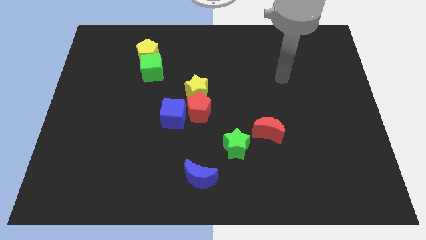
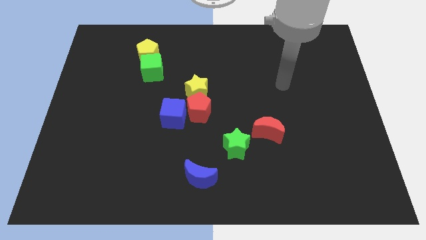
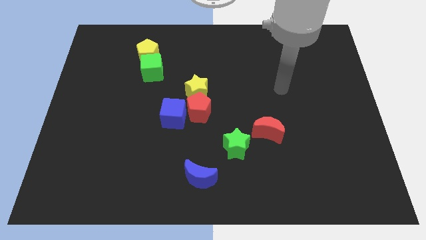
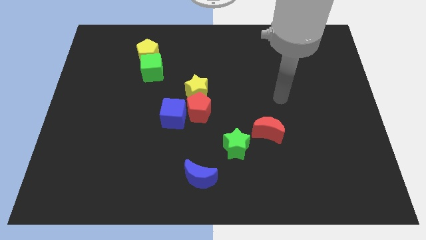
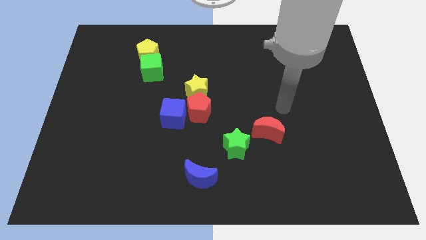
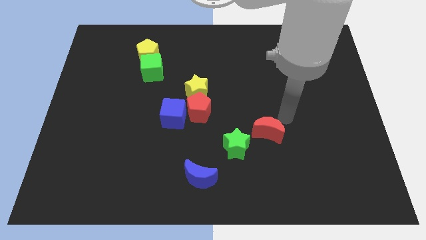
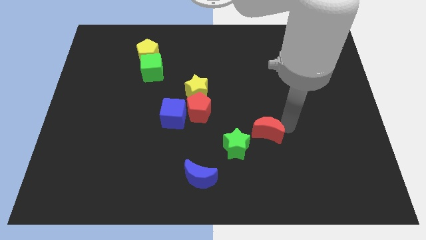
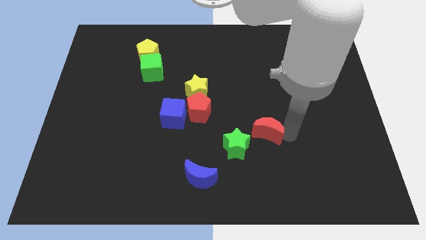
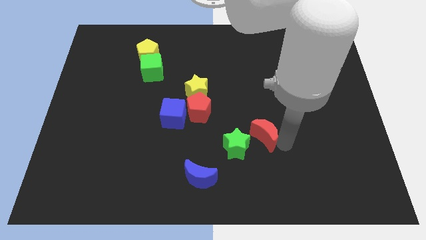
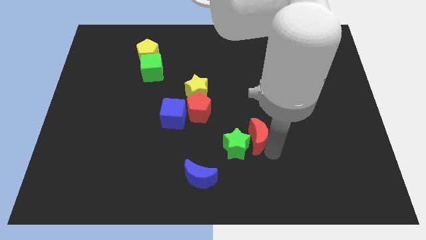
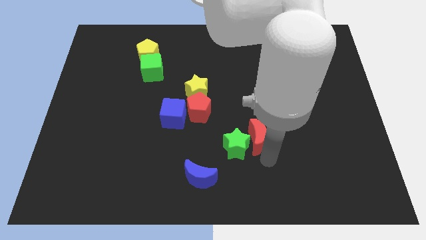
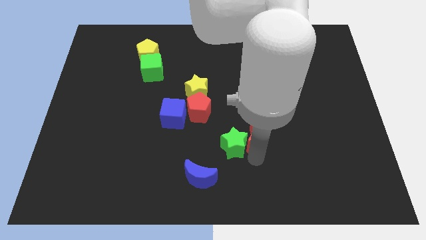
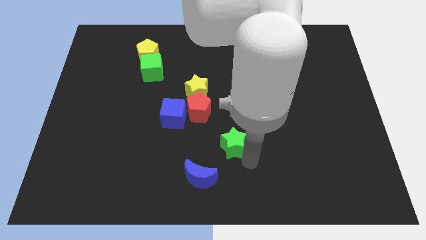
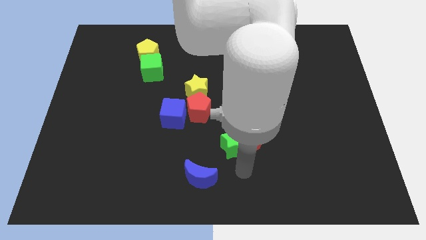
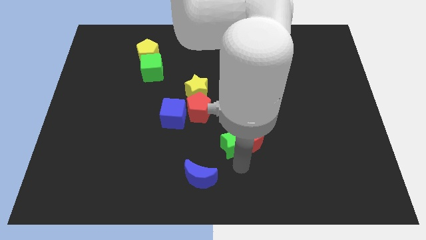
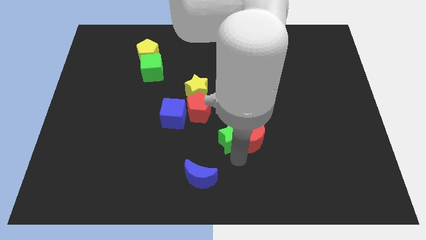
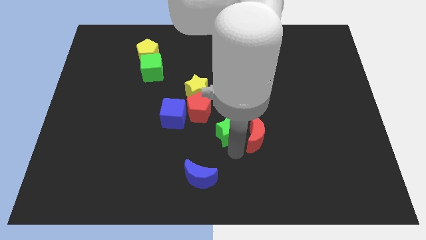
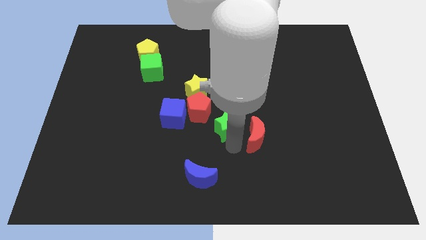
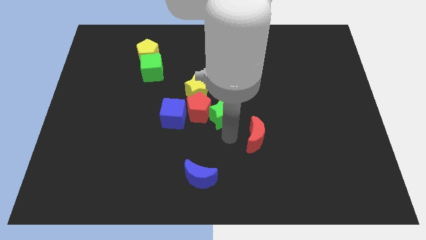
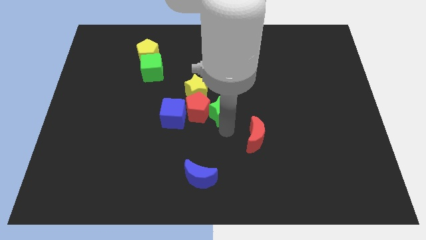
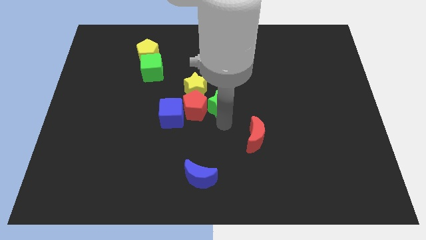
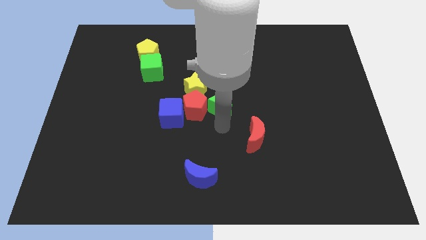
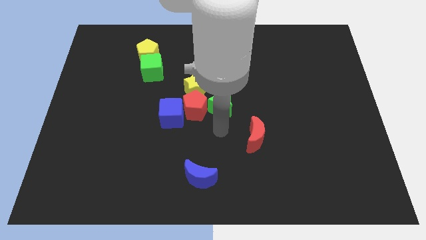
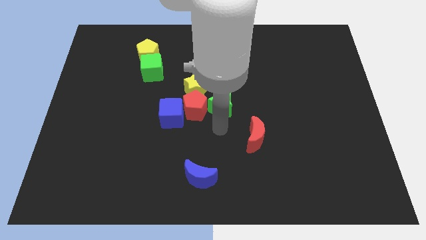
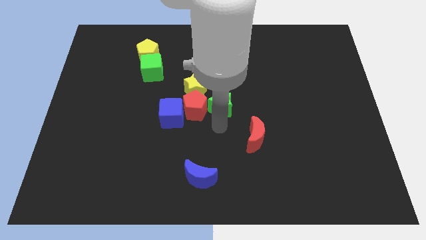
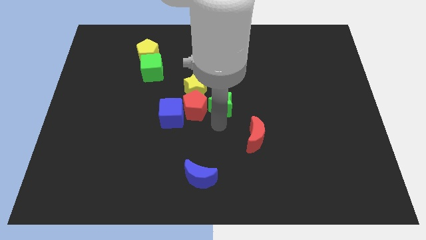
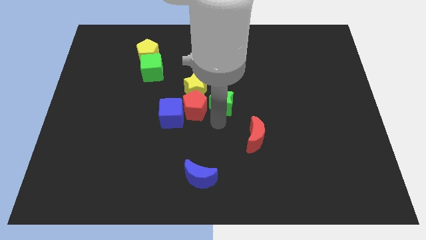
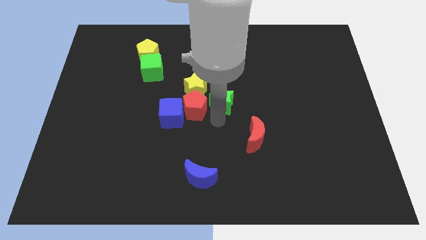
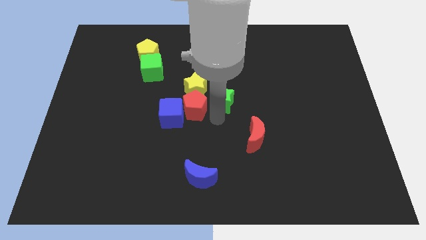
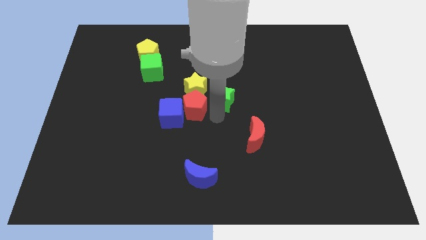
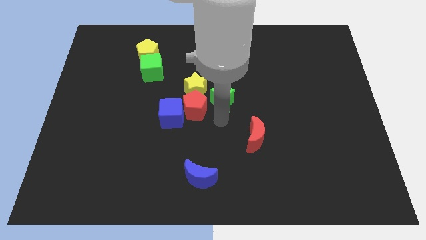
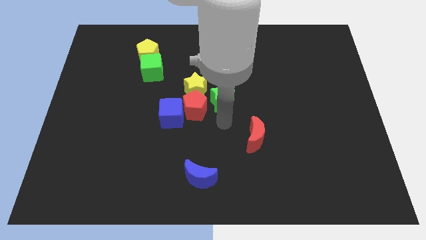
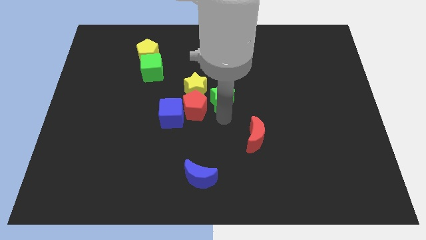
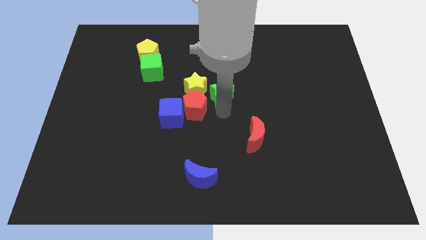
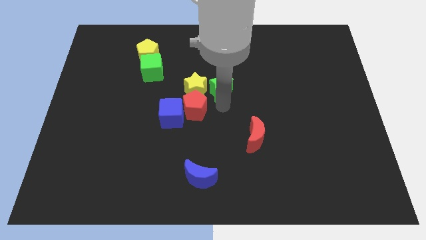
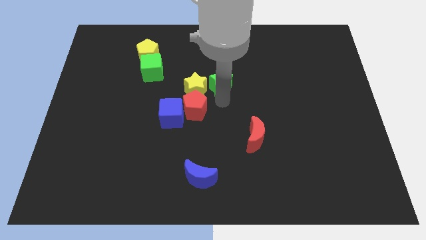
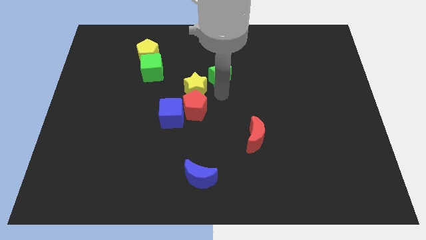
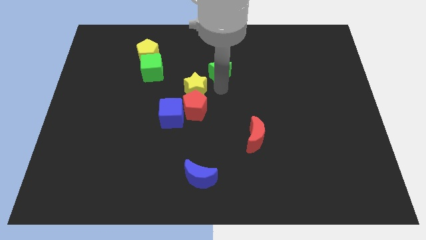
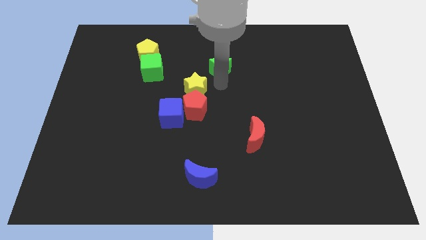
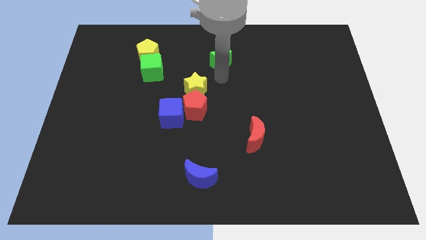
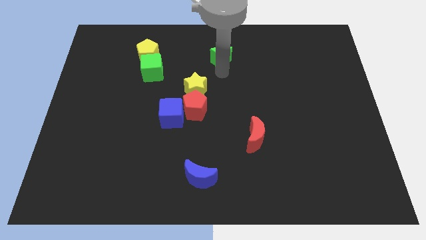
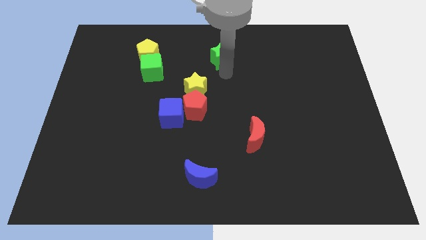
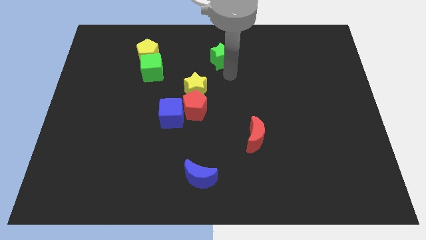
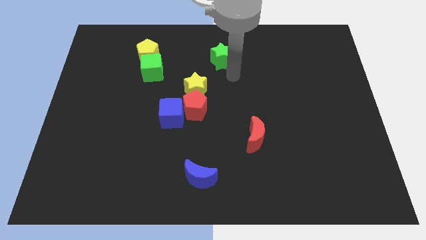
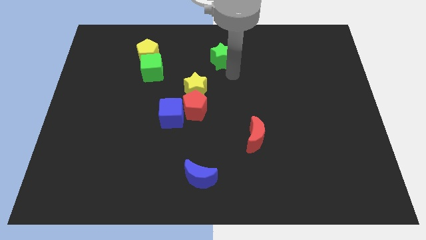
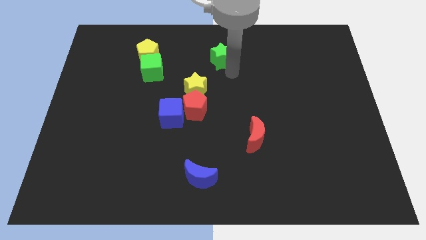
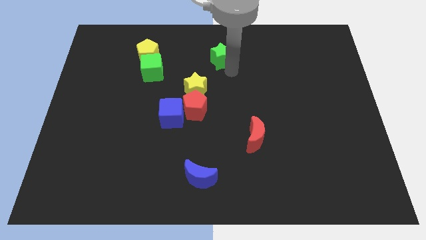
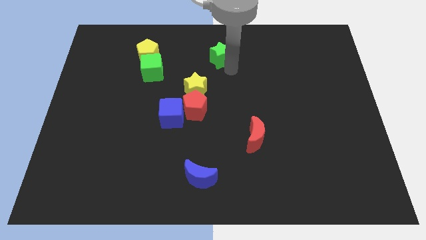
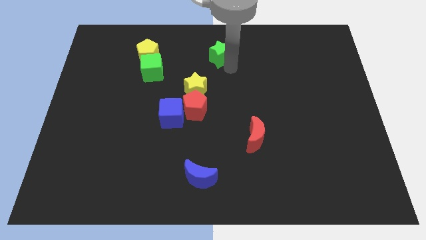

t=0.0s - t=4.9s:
put the green star to the top

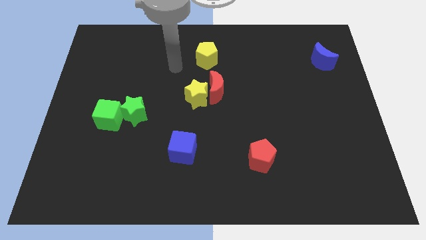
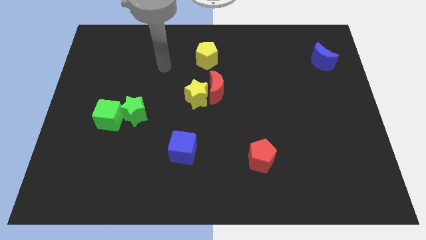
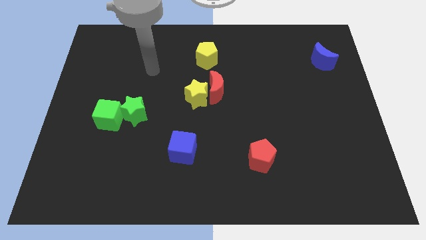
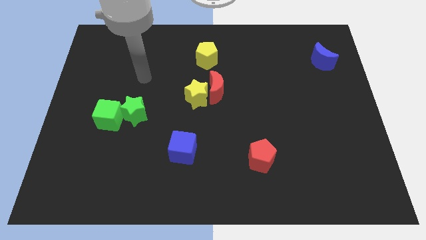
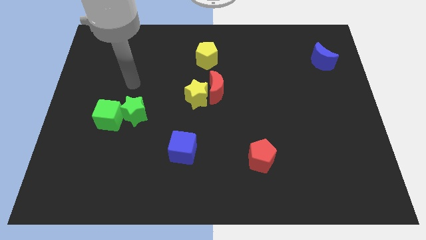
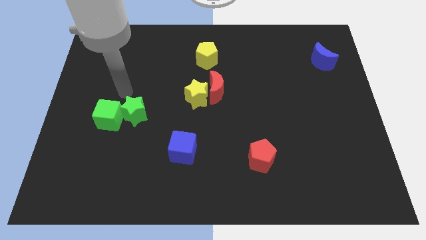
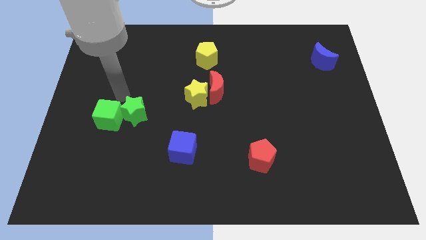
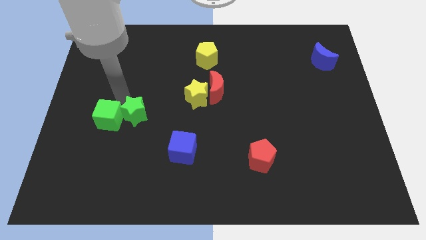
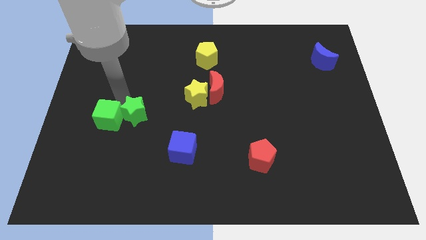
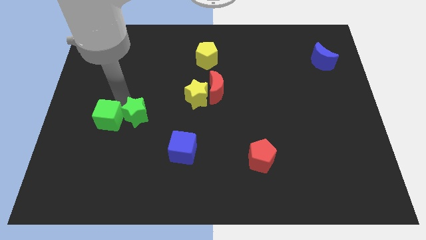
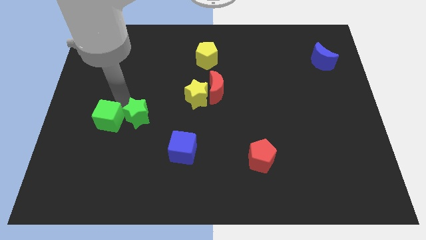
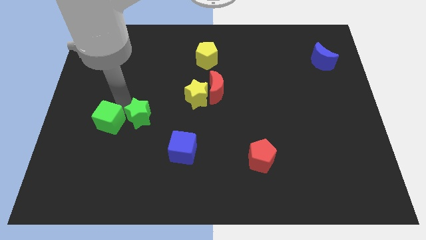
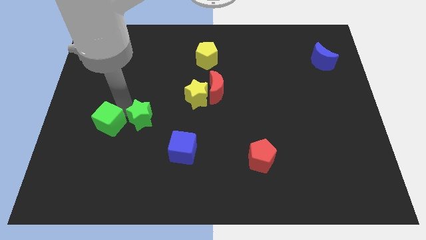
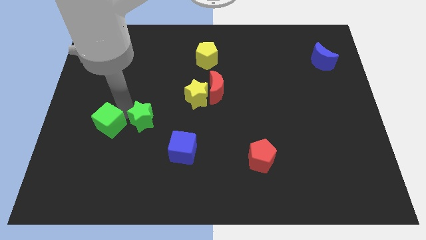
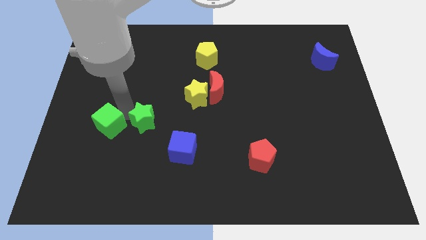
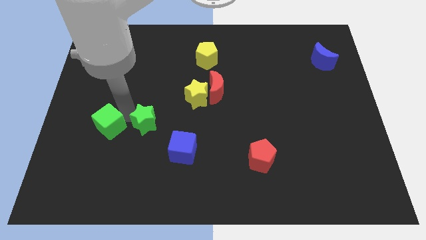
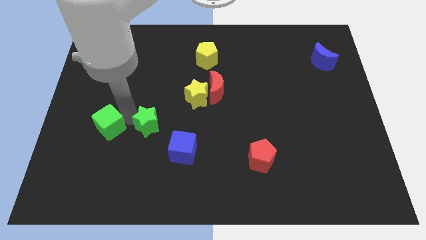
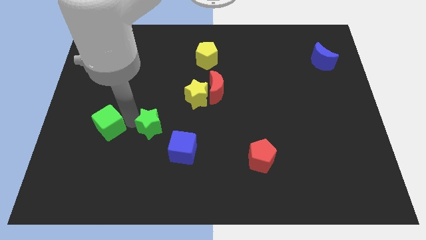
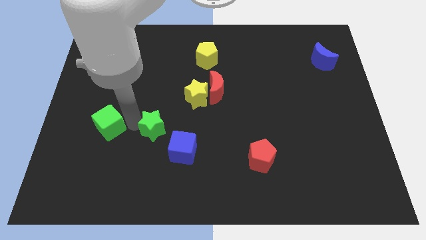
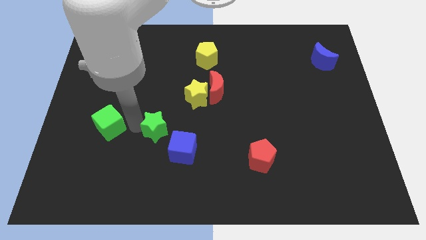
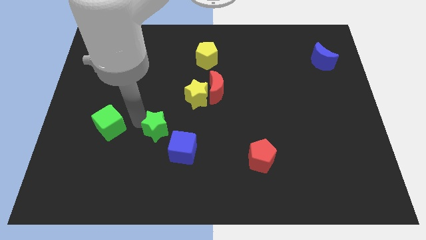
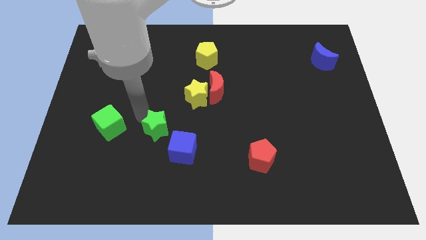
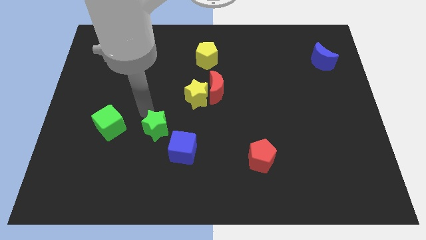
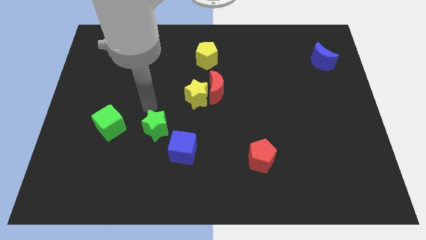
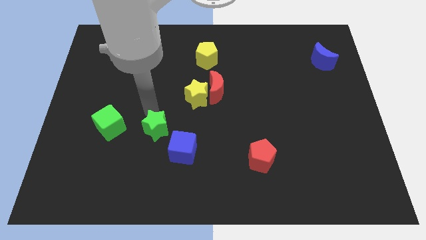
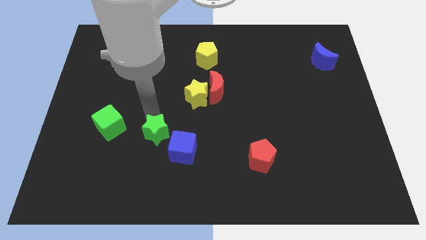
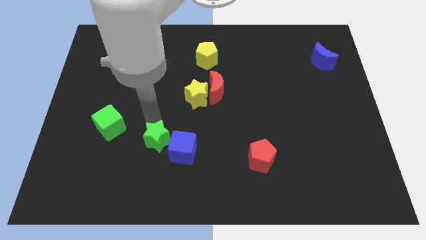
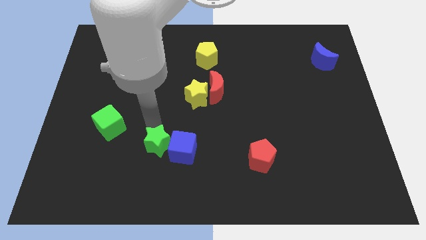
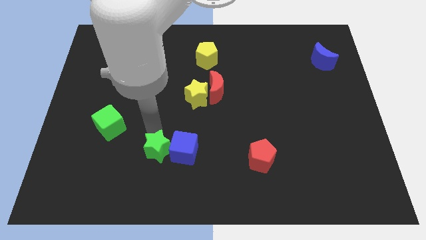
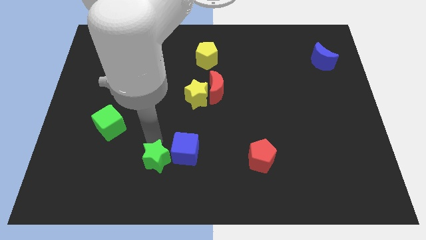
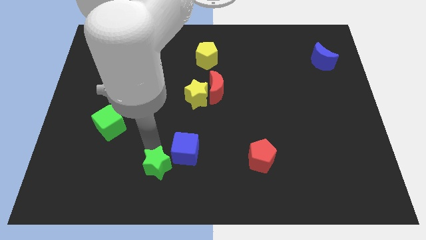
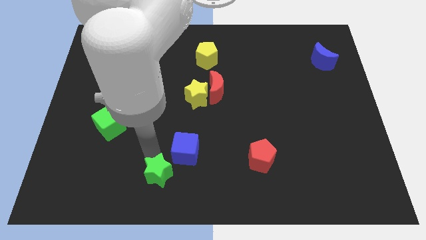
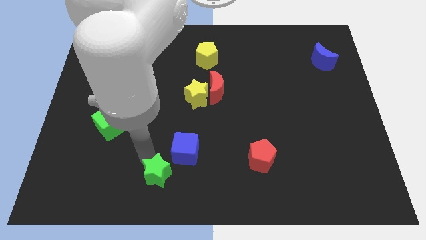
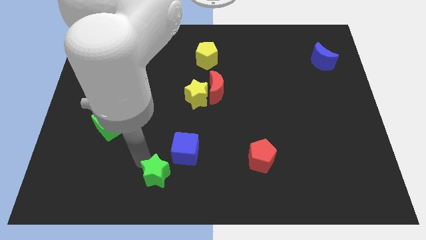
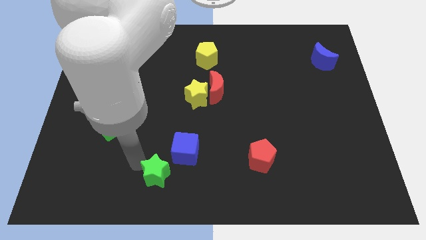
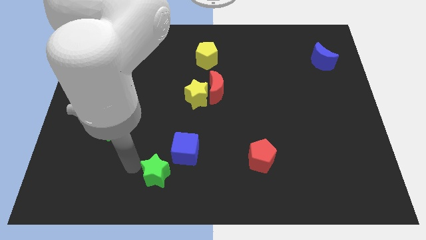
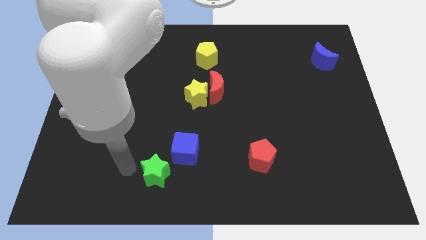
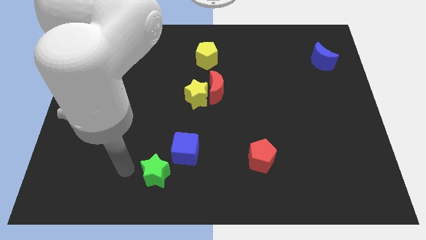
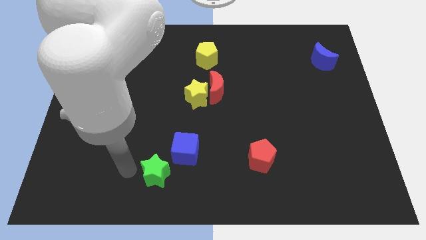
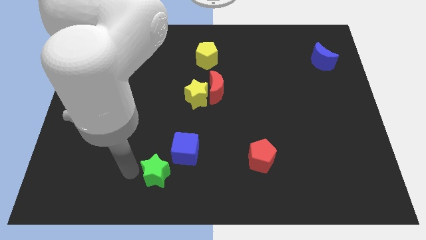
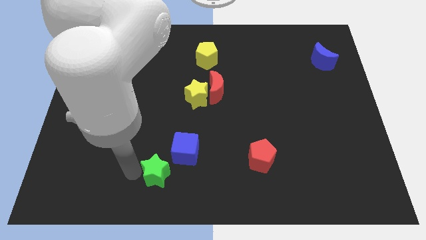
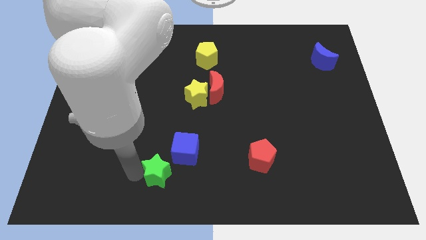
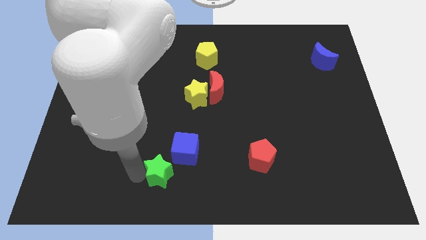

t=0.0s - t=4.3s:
slide the green star to the bottom side
